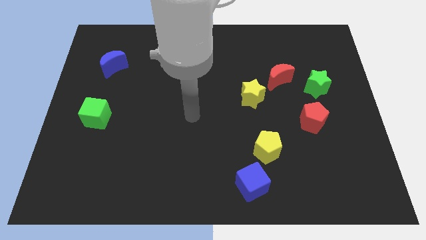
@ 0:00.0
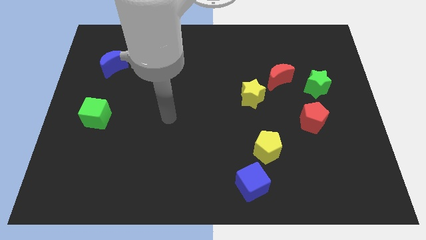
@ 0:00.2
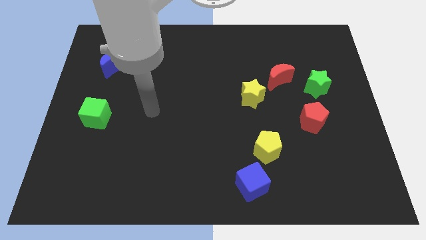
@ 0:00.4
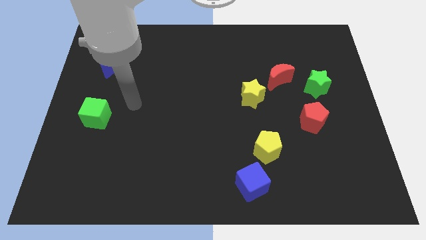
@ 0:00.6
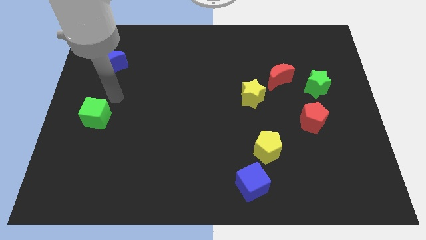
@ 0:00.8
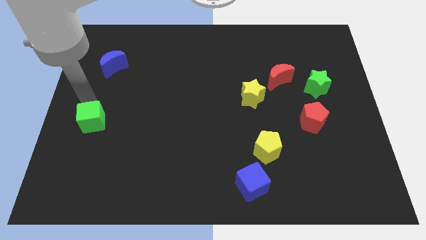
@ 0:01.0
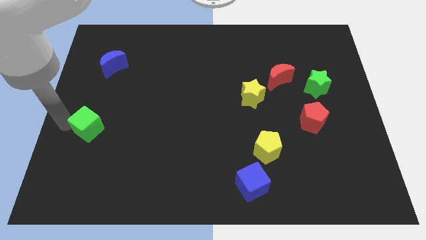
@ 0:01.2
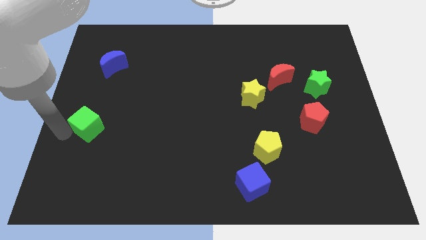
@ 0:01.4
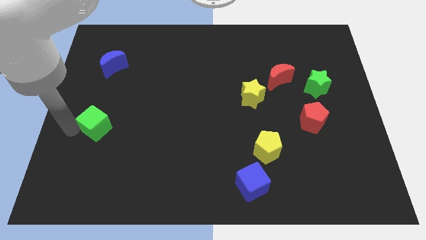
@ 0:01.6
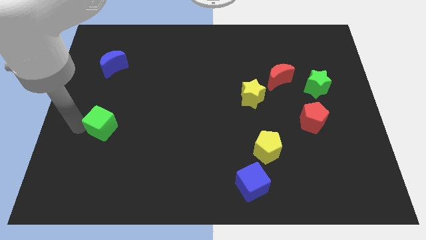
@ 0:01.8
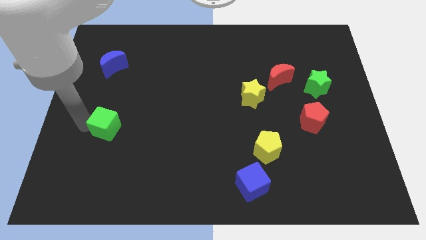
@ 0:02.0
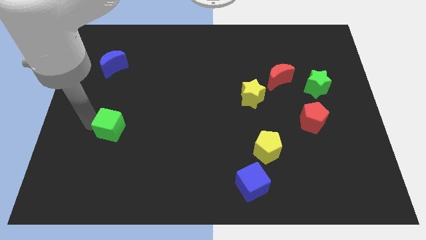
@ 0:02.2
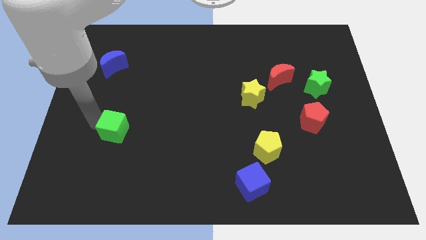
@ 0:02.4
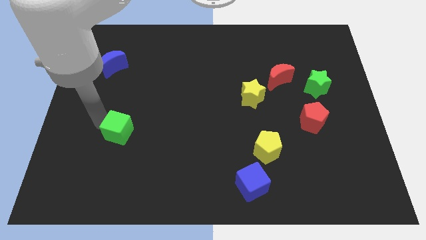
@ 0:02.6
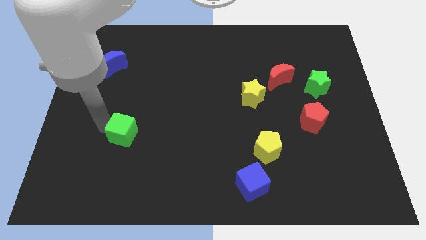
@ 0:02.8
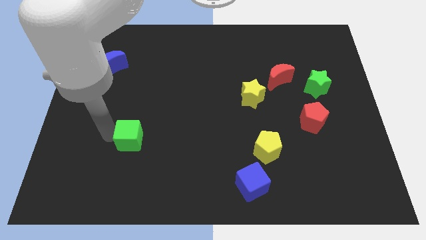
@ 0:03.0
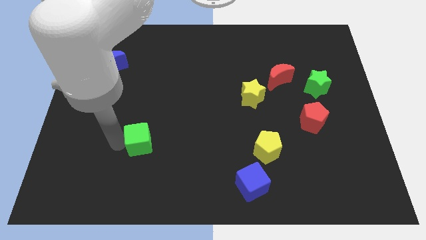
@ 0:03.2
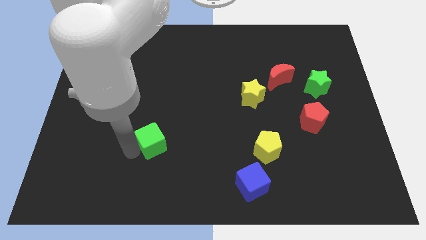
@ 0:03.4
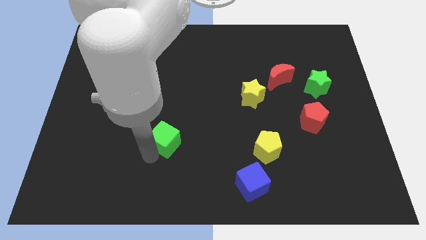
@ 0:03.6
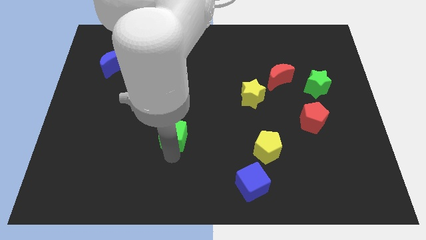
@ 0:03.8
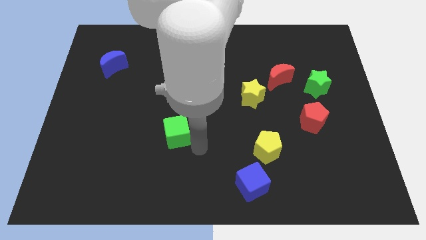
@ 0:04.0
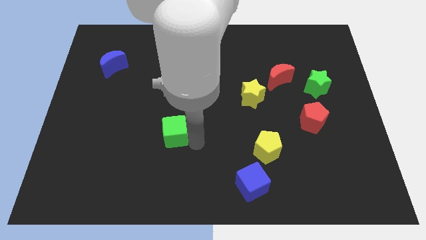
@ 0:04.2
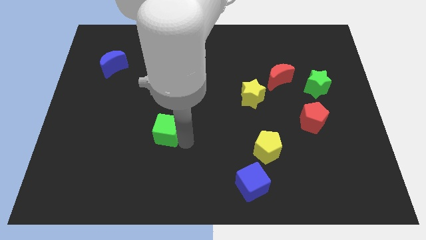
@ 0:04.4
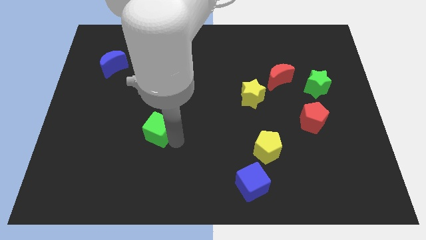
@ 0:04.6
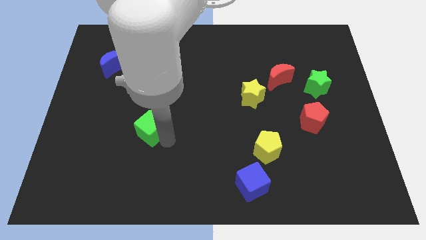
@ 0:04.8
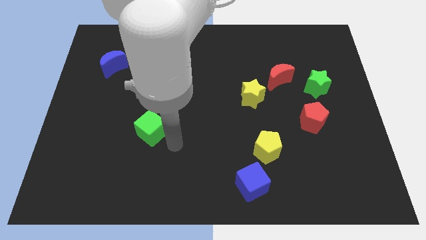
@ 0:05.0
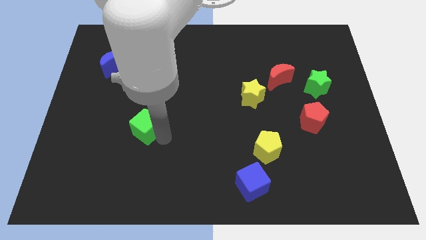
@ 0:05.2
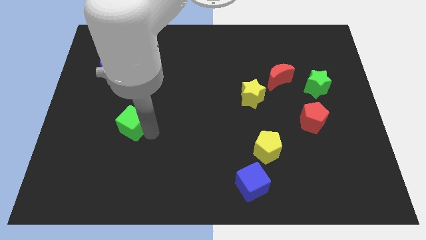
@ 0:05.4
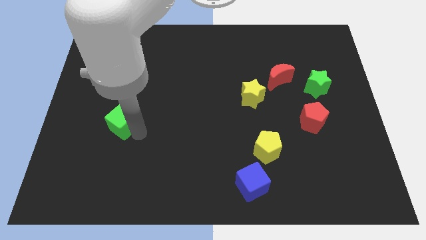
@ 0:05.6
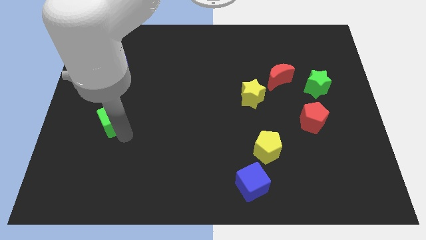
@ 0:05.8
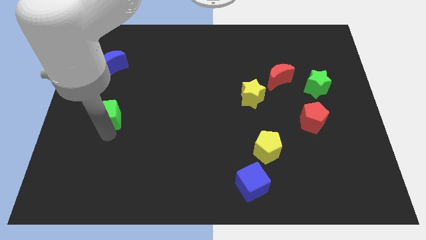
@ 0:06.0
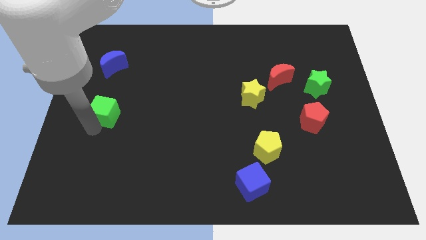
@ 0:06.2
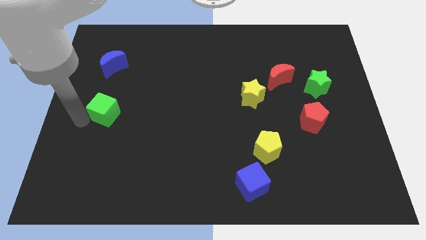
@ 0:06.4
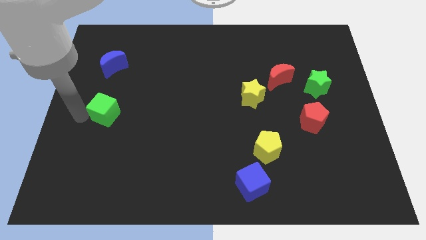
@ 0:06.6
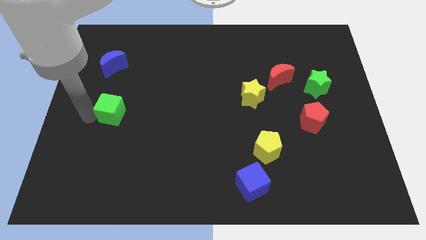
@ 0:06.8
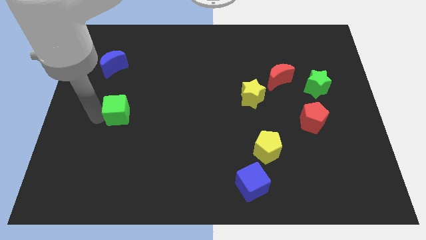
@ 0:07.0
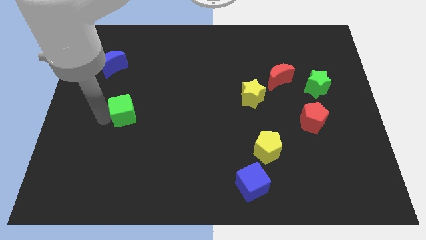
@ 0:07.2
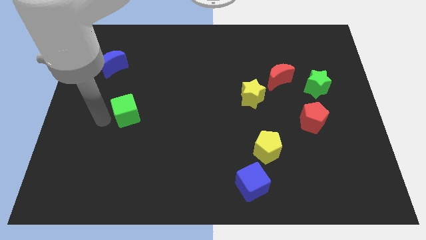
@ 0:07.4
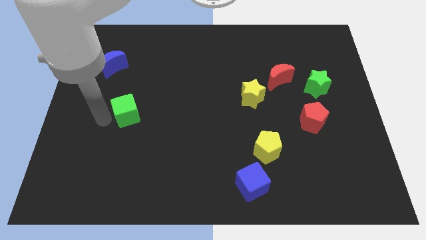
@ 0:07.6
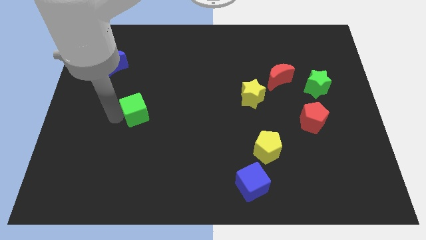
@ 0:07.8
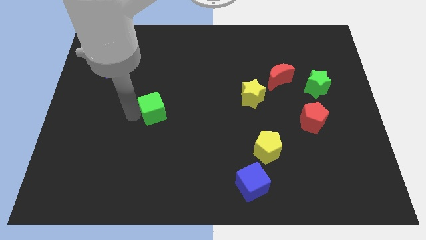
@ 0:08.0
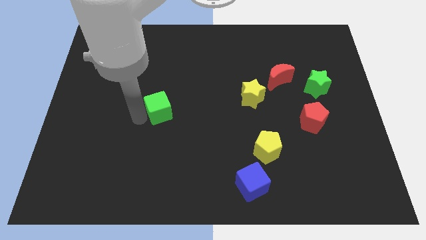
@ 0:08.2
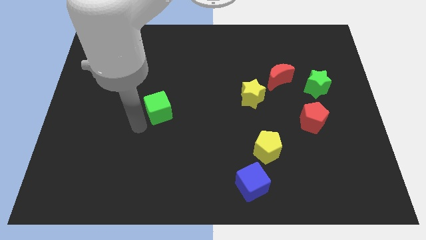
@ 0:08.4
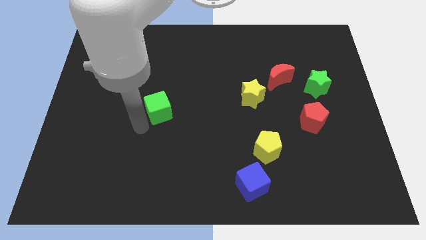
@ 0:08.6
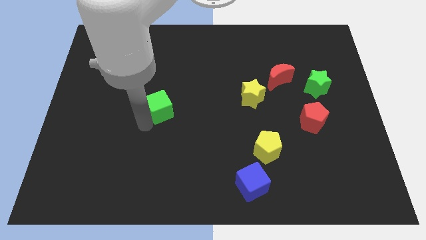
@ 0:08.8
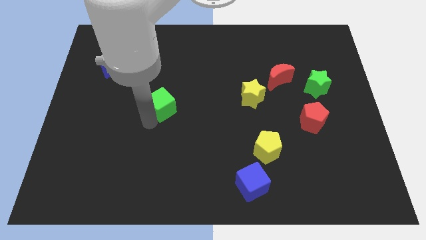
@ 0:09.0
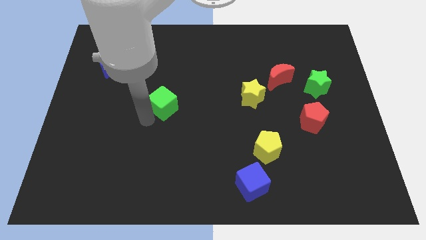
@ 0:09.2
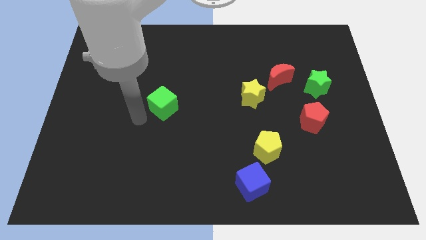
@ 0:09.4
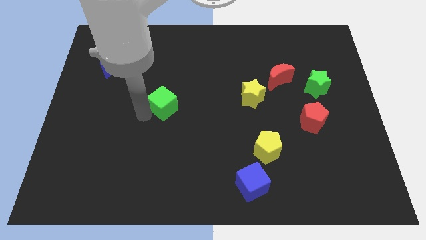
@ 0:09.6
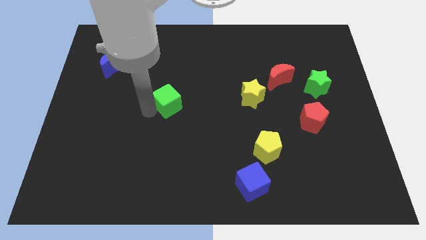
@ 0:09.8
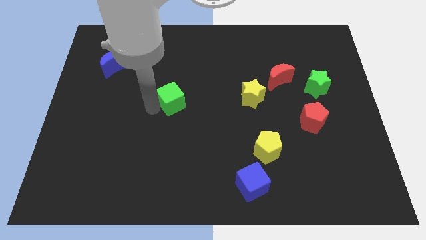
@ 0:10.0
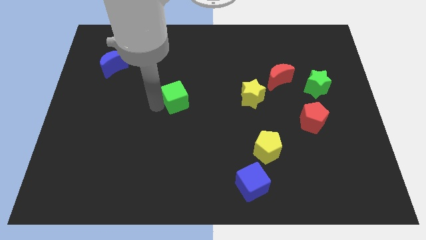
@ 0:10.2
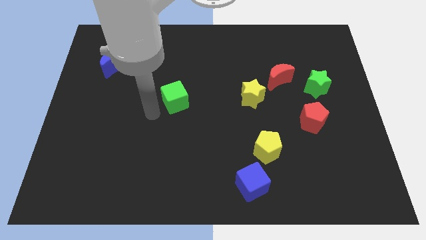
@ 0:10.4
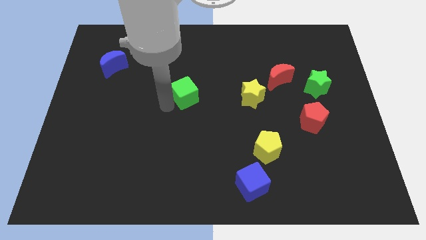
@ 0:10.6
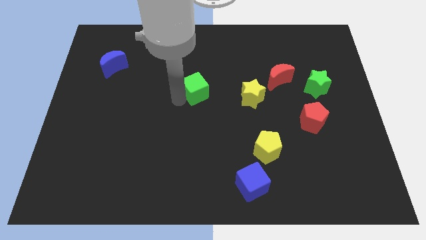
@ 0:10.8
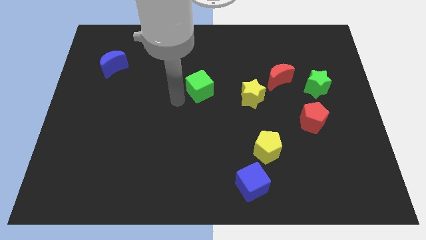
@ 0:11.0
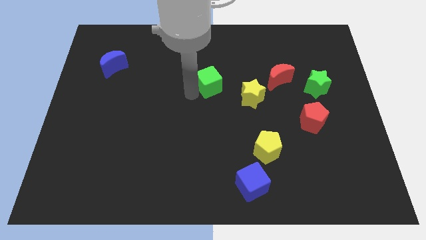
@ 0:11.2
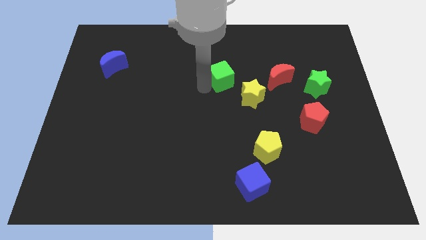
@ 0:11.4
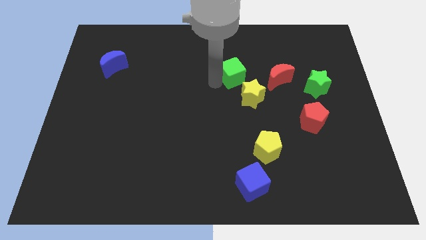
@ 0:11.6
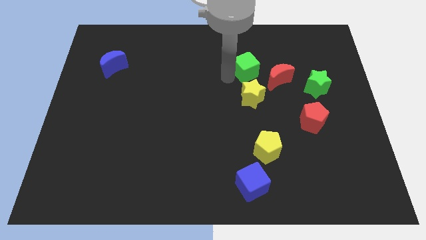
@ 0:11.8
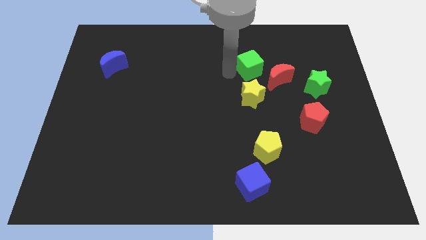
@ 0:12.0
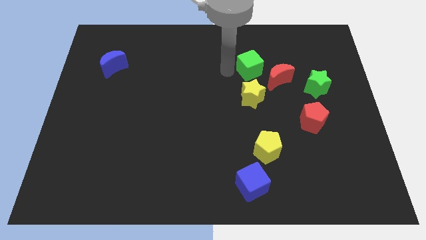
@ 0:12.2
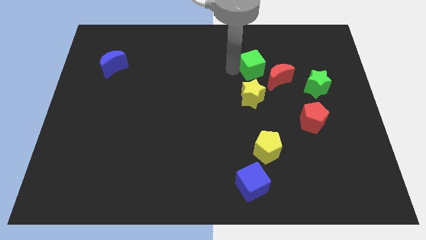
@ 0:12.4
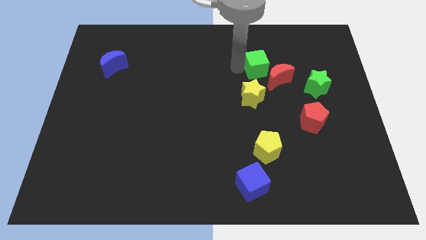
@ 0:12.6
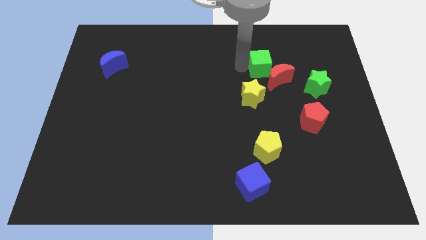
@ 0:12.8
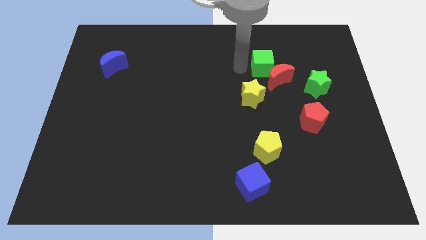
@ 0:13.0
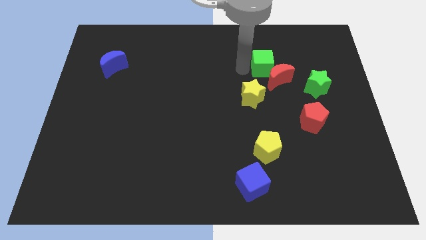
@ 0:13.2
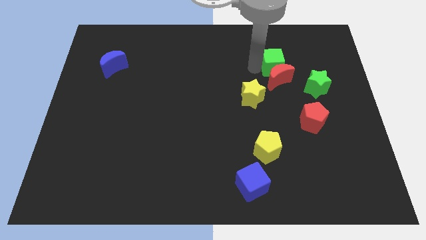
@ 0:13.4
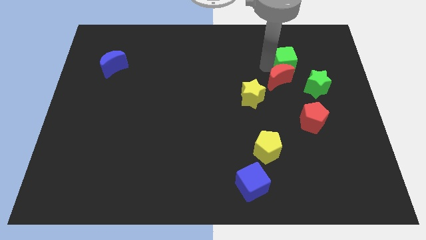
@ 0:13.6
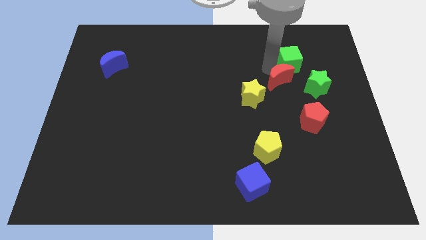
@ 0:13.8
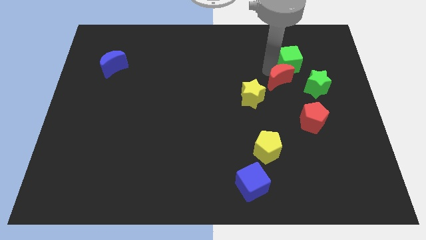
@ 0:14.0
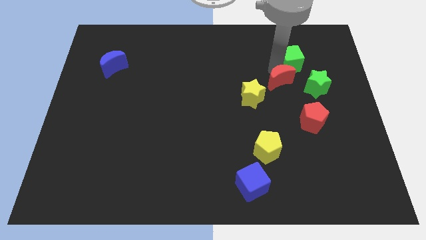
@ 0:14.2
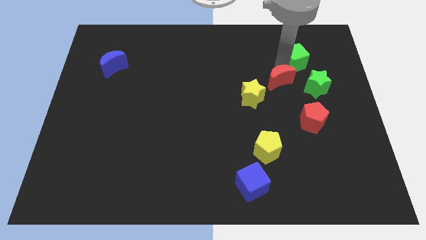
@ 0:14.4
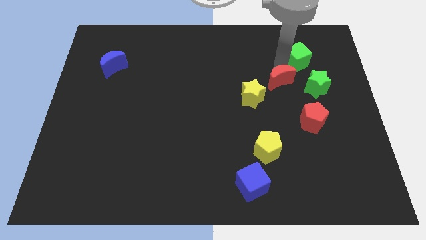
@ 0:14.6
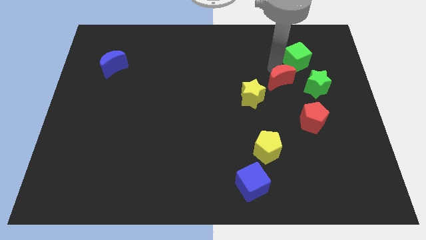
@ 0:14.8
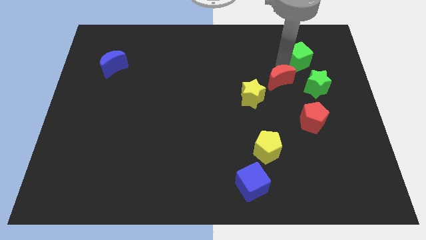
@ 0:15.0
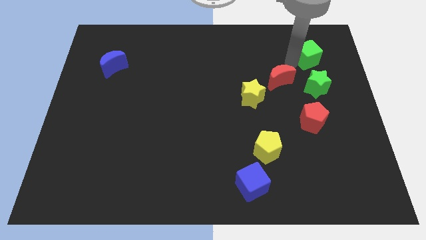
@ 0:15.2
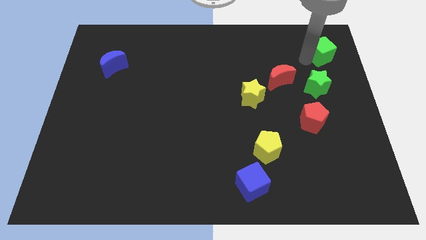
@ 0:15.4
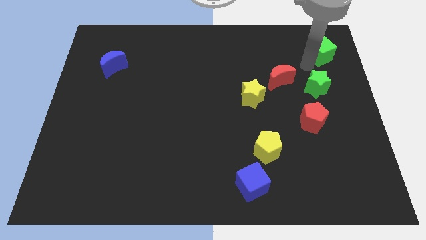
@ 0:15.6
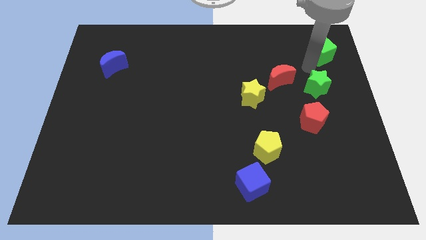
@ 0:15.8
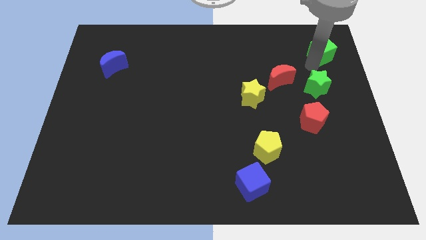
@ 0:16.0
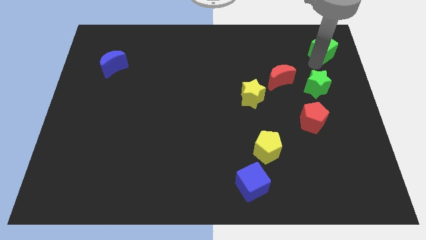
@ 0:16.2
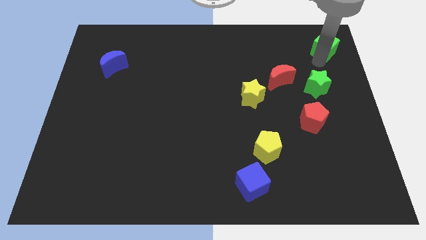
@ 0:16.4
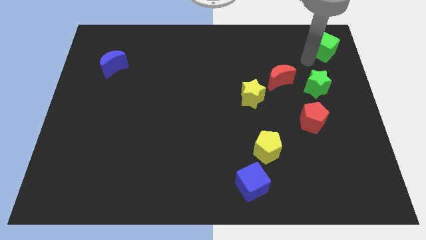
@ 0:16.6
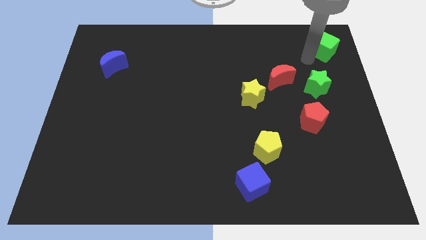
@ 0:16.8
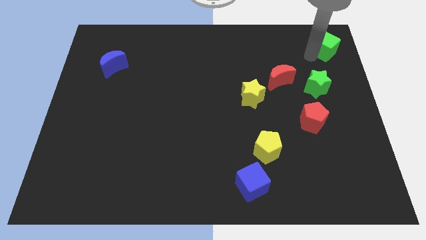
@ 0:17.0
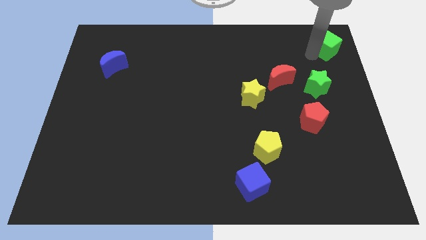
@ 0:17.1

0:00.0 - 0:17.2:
move the green cube to the top right corner
